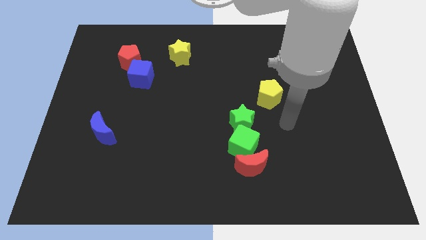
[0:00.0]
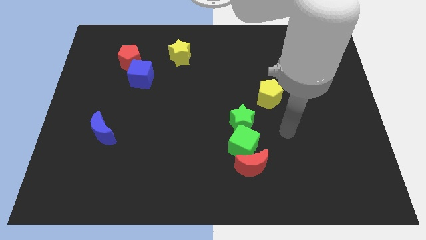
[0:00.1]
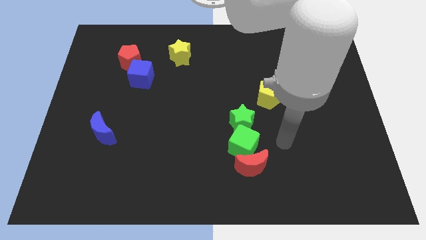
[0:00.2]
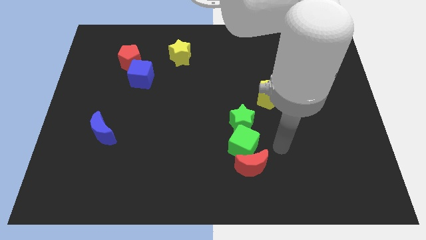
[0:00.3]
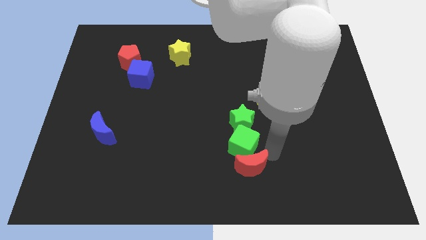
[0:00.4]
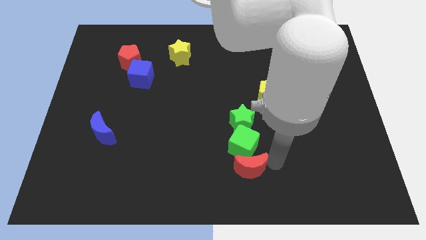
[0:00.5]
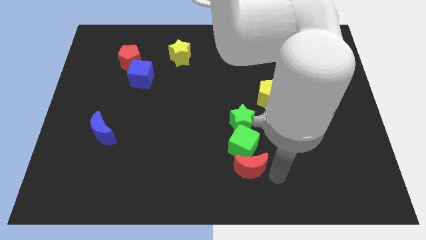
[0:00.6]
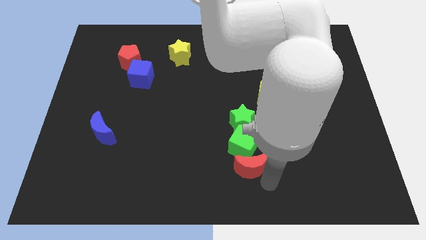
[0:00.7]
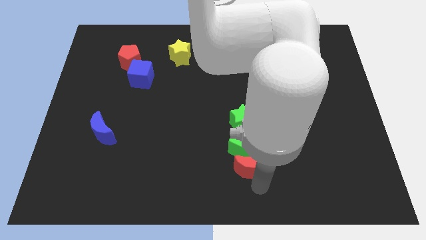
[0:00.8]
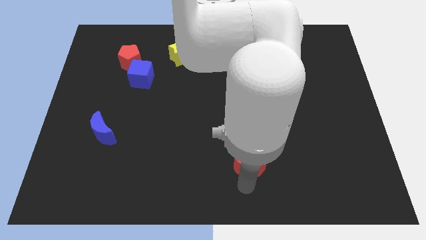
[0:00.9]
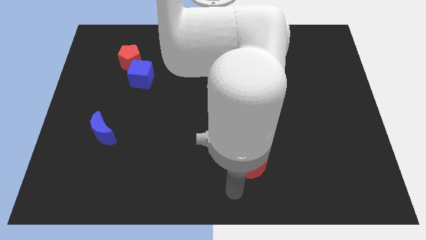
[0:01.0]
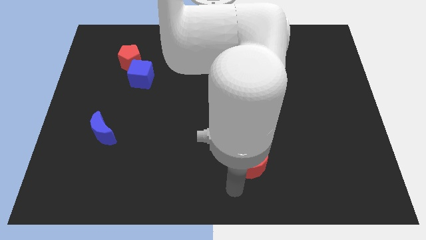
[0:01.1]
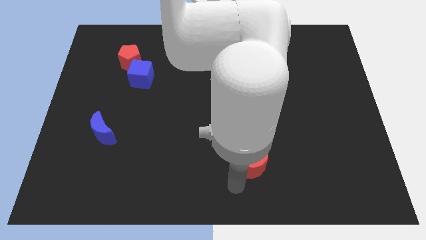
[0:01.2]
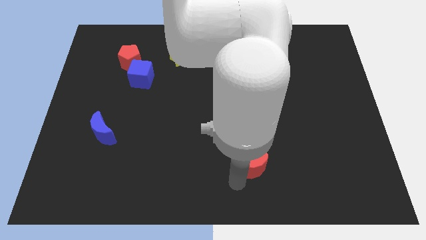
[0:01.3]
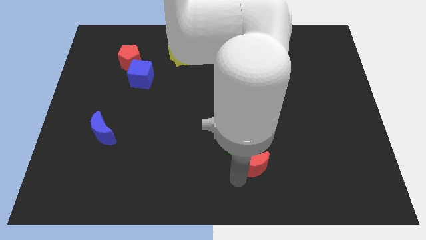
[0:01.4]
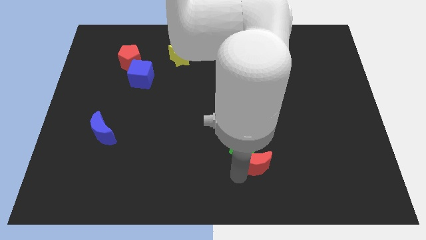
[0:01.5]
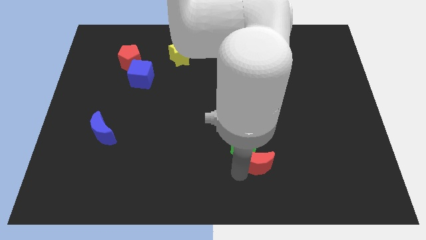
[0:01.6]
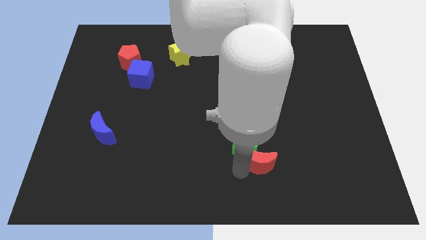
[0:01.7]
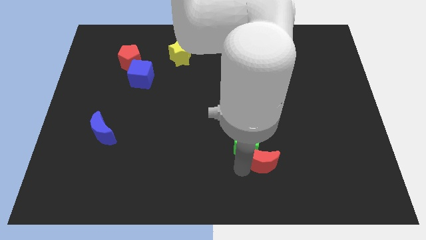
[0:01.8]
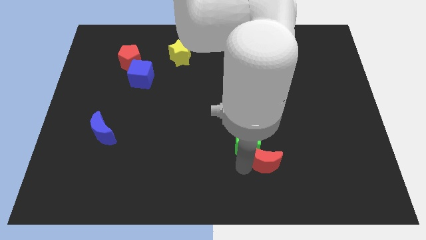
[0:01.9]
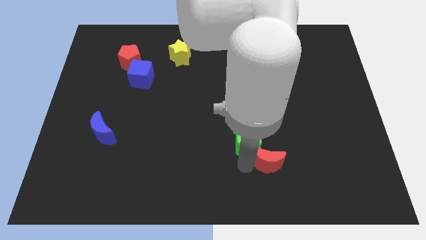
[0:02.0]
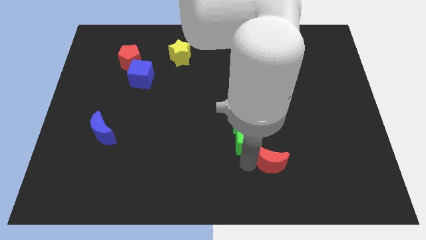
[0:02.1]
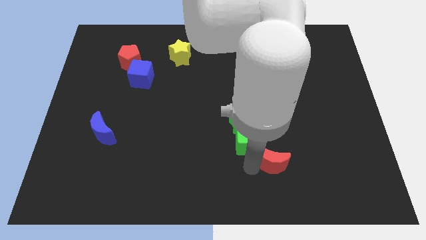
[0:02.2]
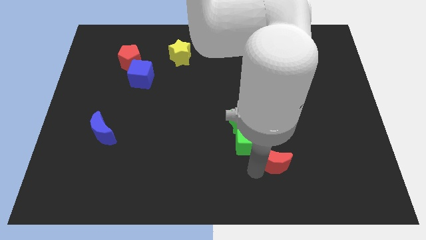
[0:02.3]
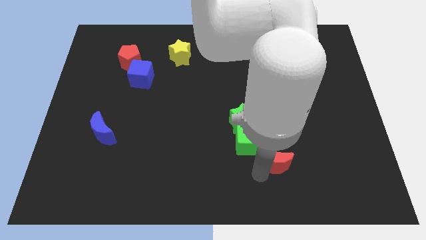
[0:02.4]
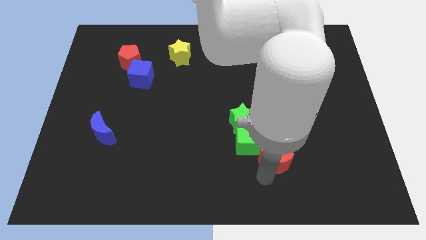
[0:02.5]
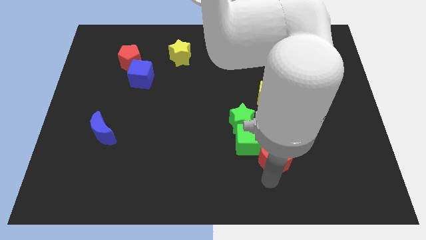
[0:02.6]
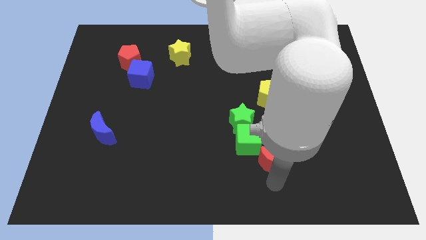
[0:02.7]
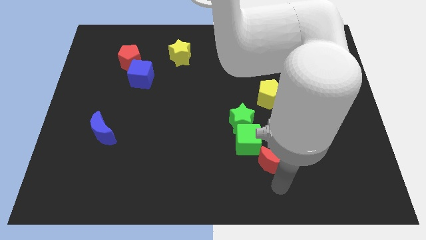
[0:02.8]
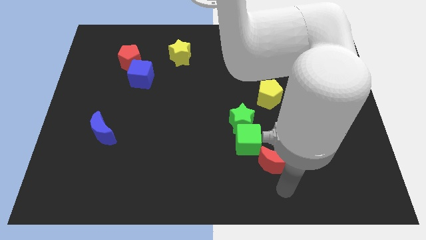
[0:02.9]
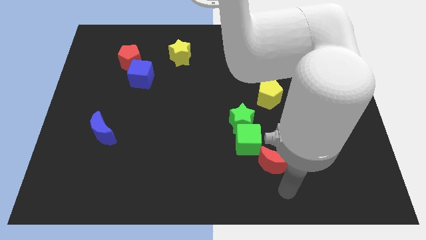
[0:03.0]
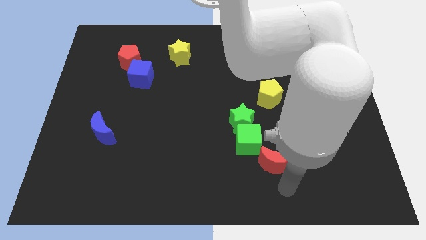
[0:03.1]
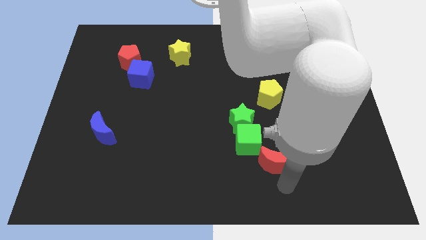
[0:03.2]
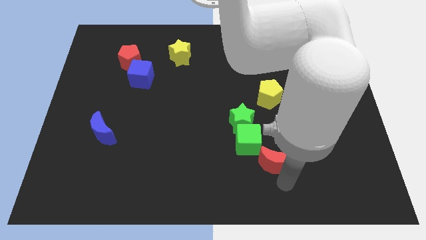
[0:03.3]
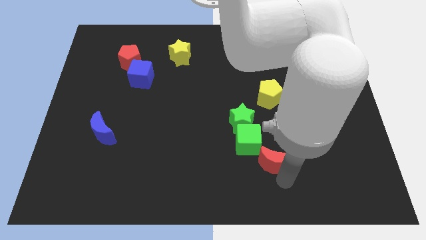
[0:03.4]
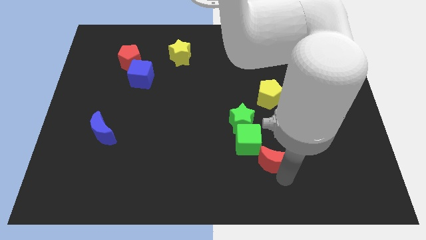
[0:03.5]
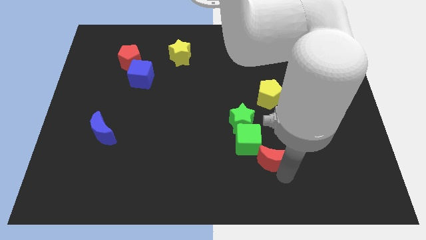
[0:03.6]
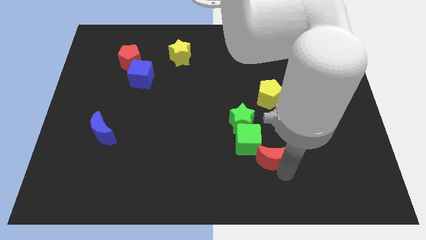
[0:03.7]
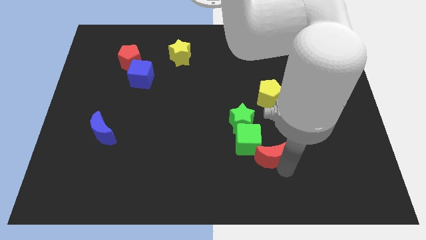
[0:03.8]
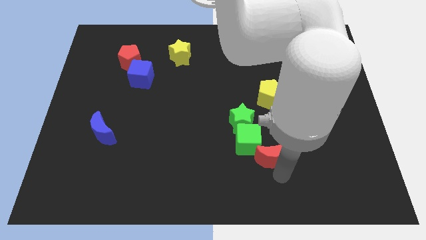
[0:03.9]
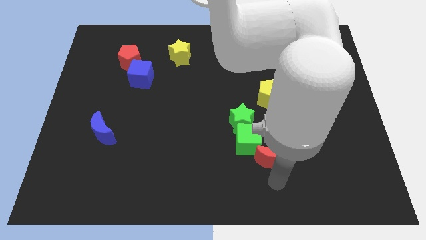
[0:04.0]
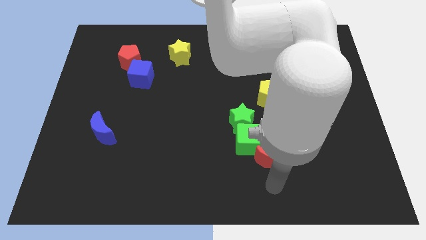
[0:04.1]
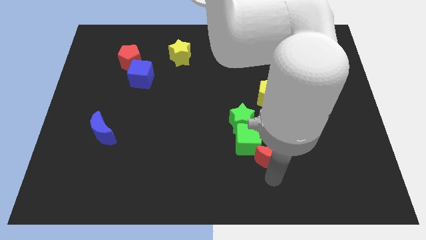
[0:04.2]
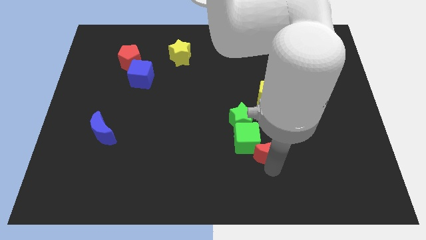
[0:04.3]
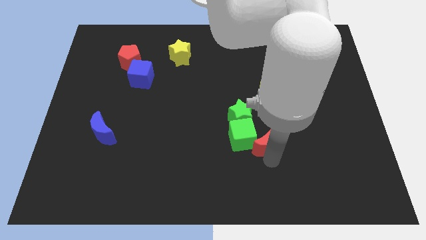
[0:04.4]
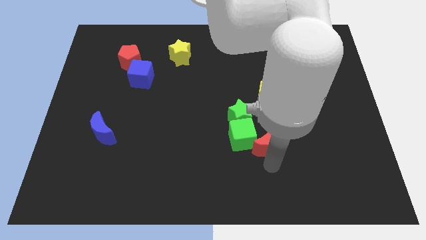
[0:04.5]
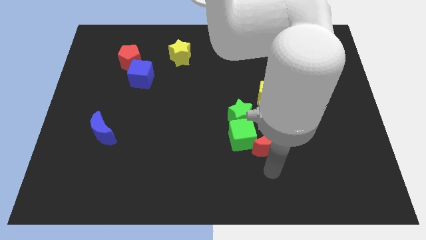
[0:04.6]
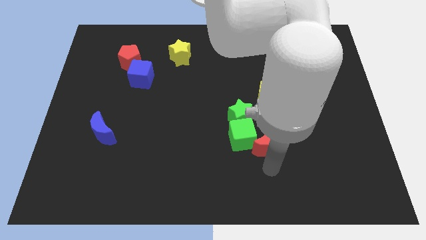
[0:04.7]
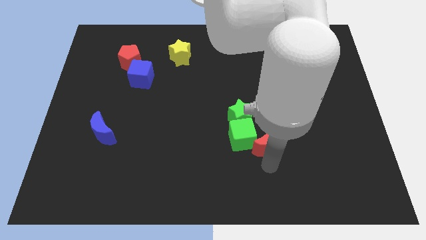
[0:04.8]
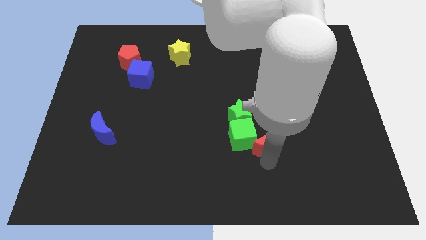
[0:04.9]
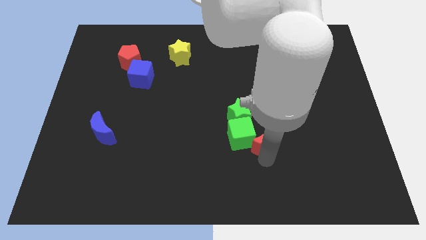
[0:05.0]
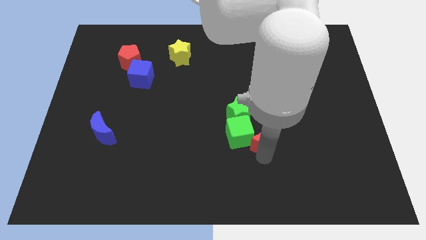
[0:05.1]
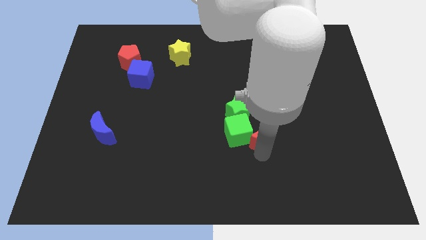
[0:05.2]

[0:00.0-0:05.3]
put the red moon to the top right of the green cube

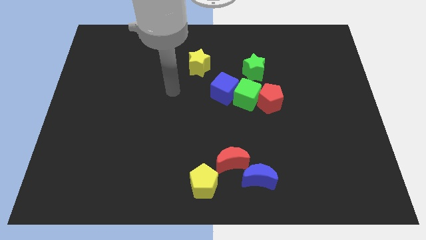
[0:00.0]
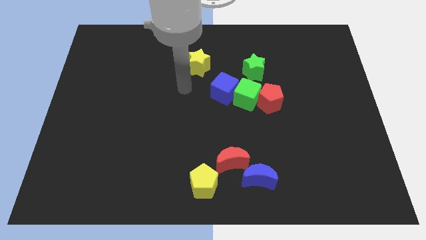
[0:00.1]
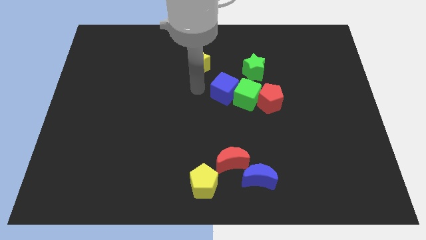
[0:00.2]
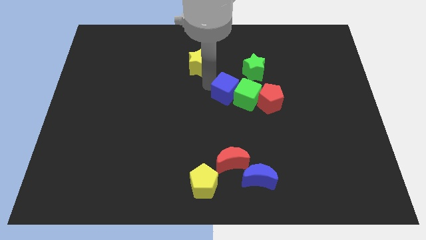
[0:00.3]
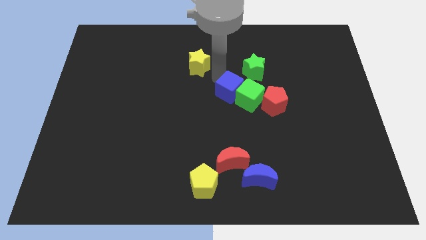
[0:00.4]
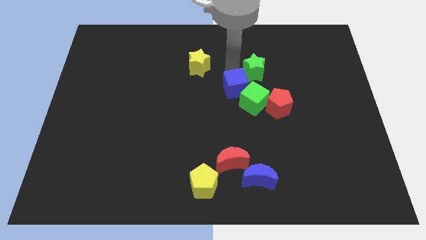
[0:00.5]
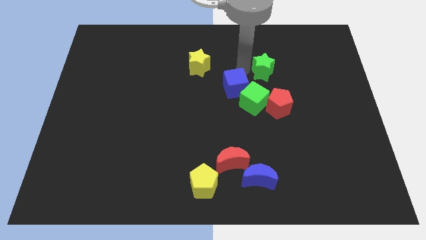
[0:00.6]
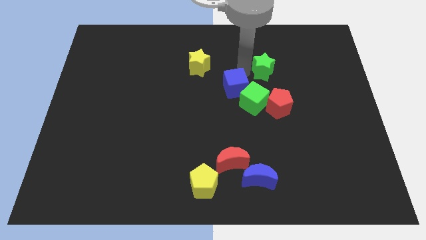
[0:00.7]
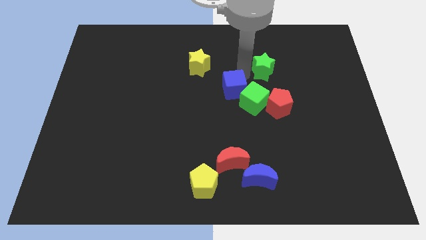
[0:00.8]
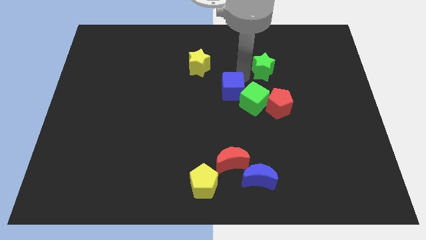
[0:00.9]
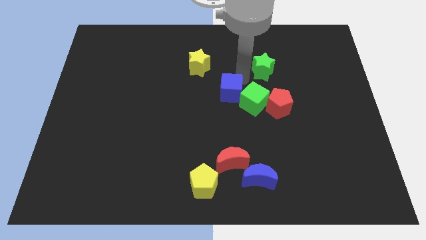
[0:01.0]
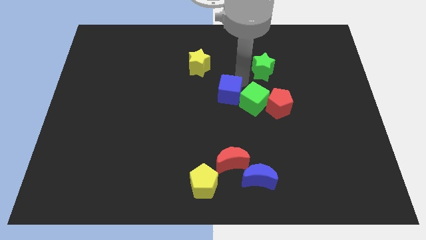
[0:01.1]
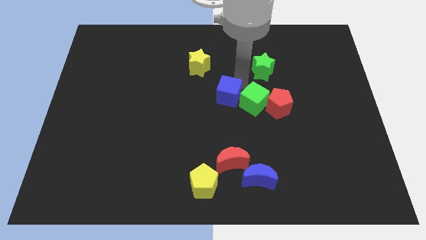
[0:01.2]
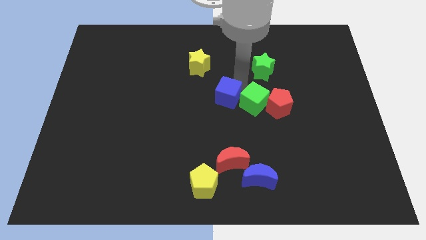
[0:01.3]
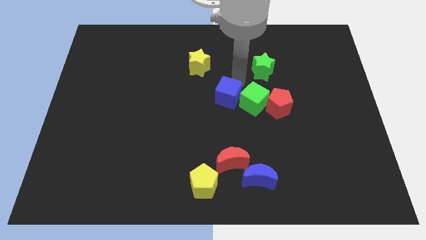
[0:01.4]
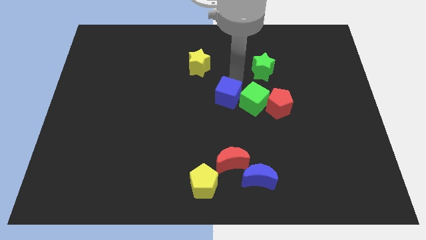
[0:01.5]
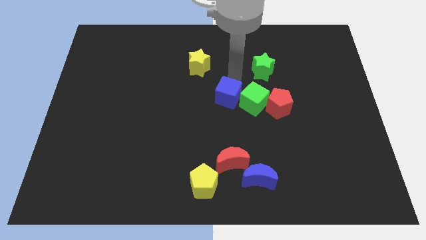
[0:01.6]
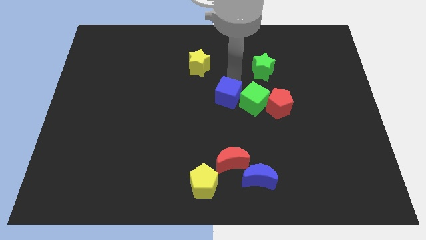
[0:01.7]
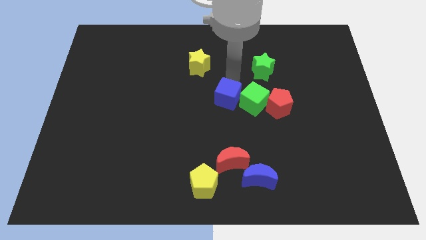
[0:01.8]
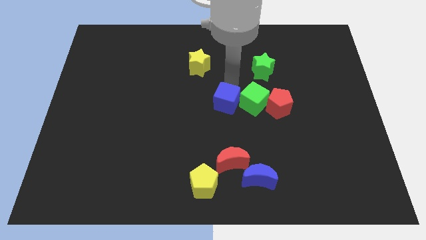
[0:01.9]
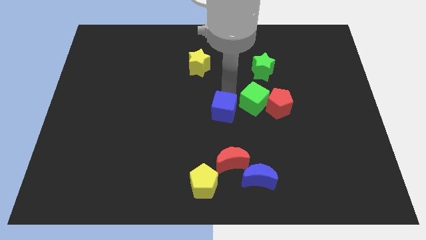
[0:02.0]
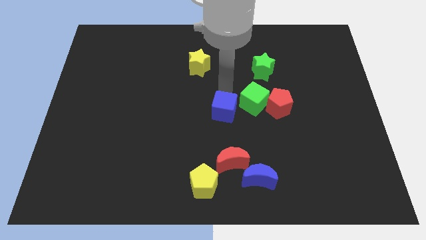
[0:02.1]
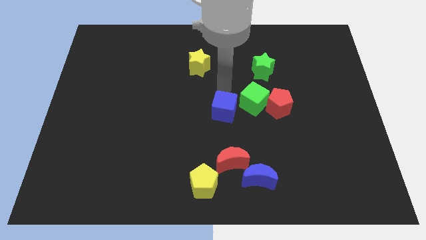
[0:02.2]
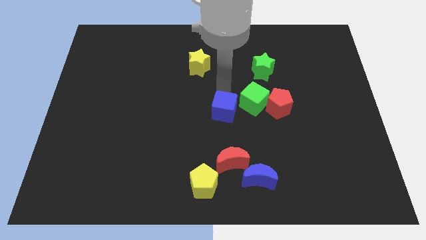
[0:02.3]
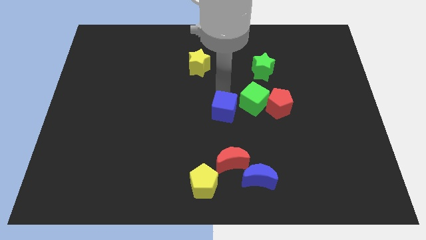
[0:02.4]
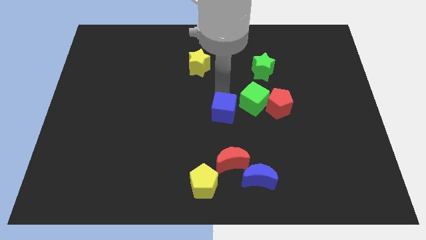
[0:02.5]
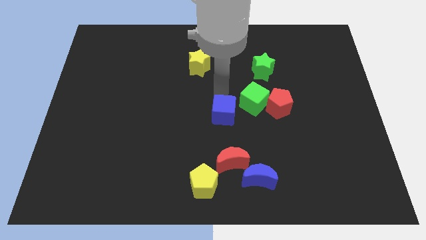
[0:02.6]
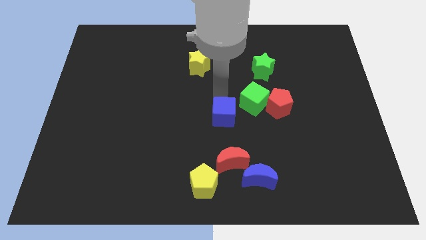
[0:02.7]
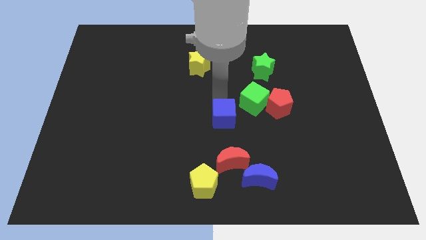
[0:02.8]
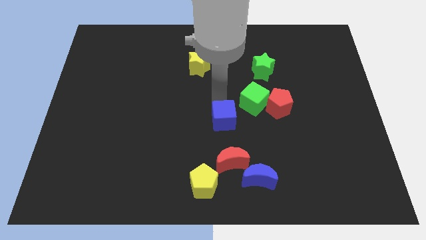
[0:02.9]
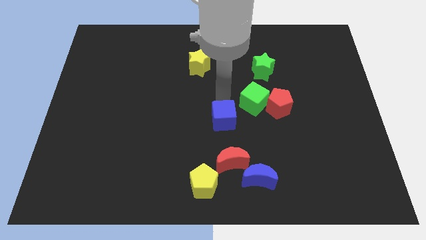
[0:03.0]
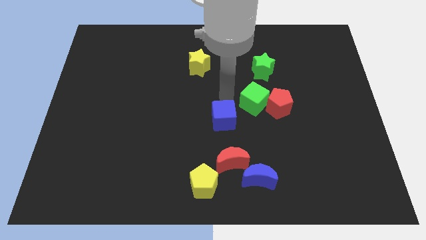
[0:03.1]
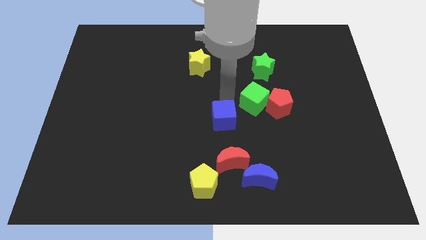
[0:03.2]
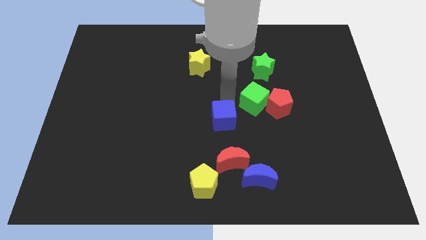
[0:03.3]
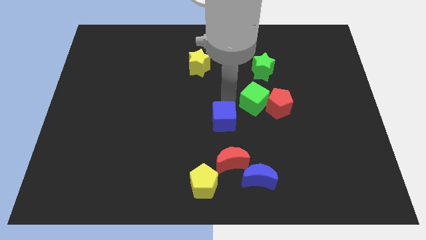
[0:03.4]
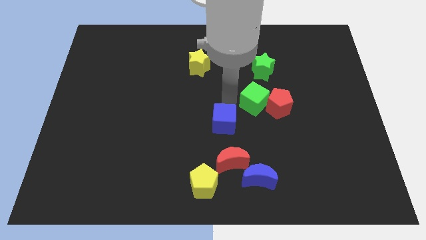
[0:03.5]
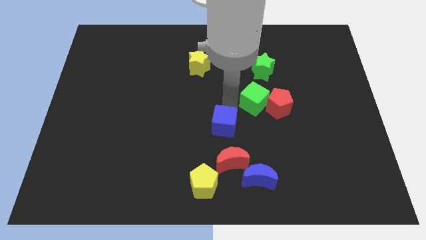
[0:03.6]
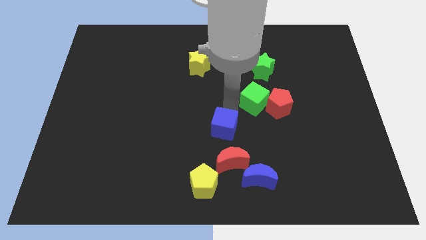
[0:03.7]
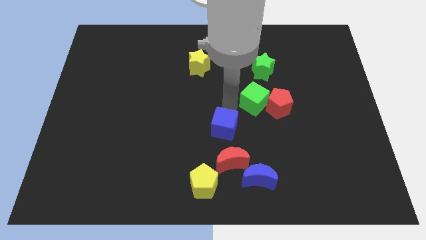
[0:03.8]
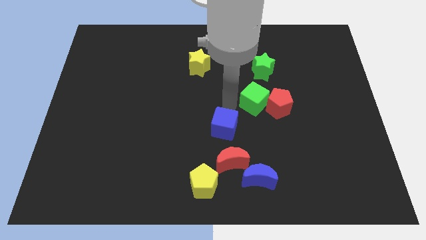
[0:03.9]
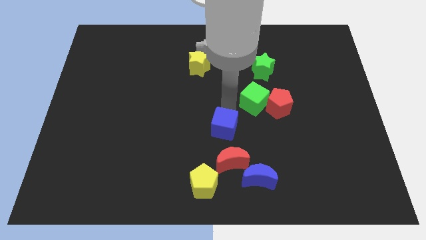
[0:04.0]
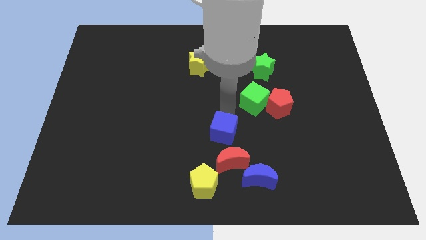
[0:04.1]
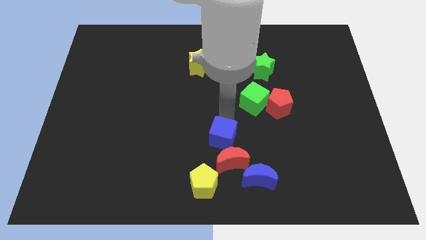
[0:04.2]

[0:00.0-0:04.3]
push the blue cube diagonally up and to the left of the blue moon
